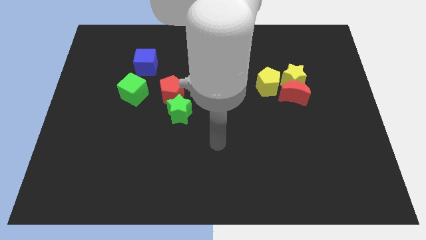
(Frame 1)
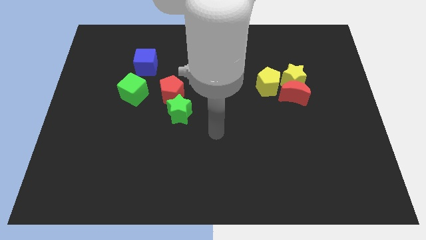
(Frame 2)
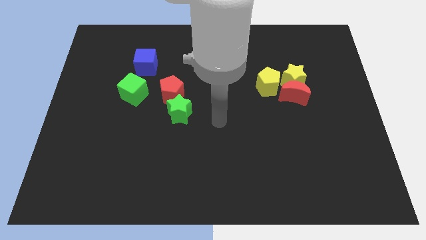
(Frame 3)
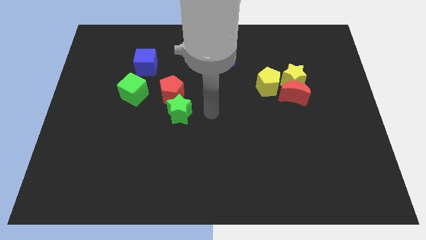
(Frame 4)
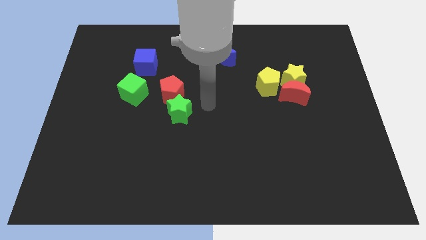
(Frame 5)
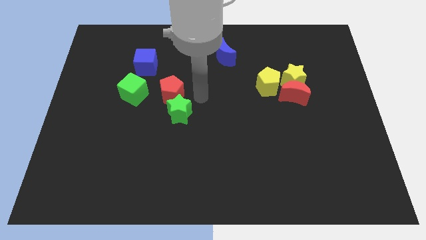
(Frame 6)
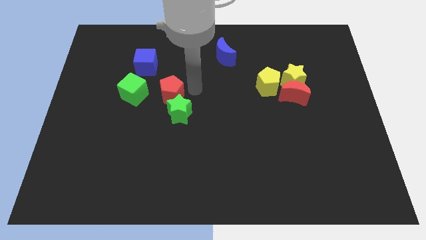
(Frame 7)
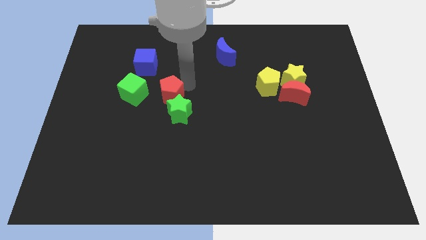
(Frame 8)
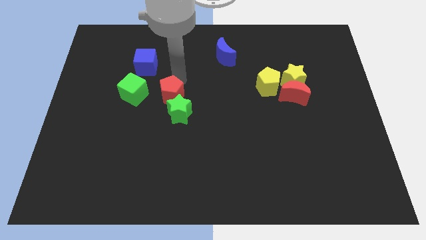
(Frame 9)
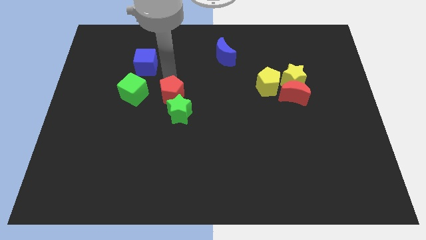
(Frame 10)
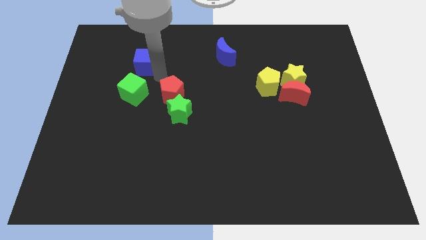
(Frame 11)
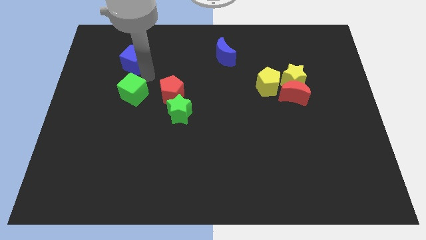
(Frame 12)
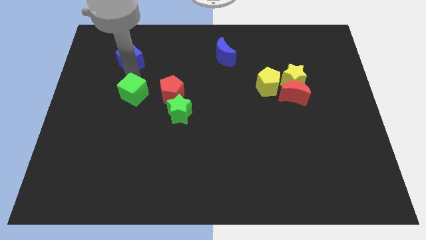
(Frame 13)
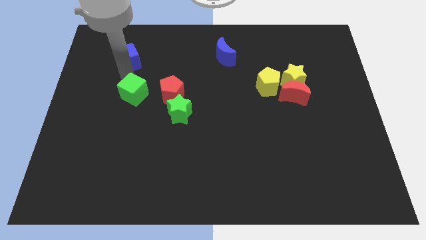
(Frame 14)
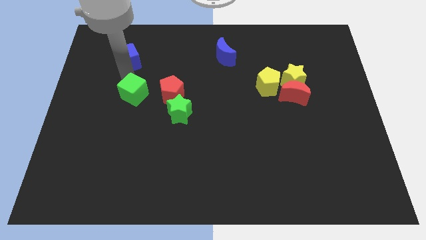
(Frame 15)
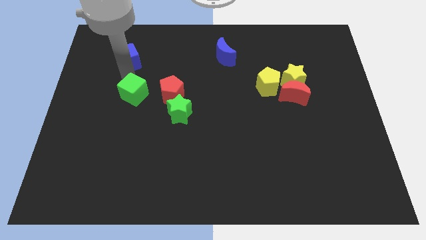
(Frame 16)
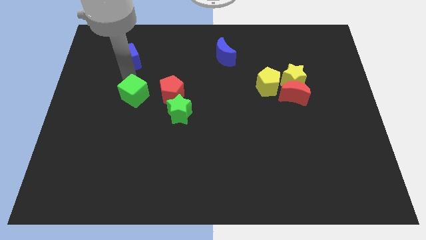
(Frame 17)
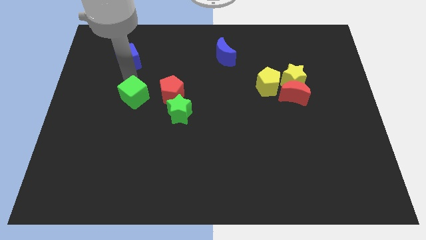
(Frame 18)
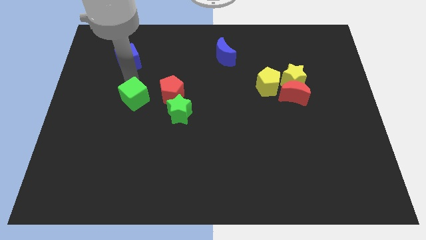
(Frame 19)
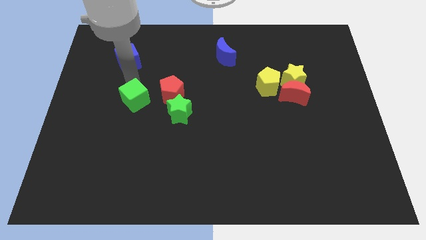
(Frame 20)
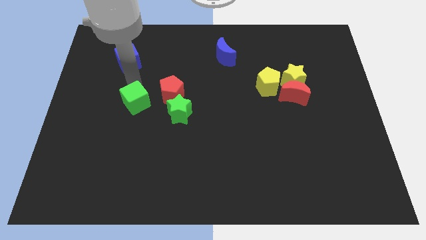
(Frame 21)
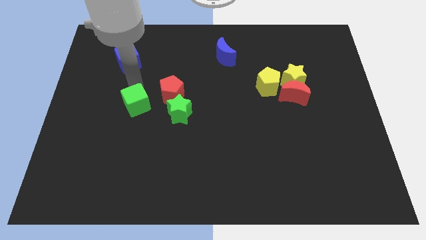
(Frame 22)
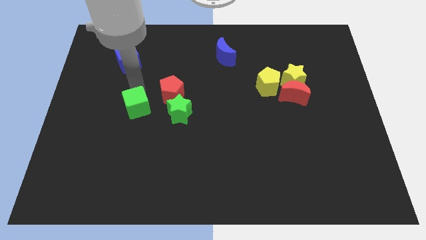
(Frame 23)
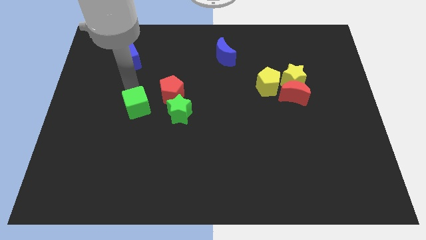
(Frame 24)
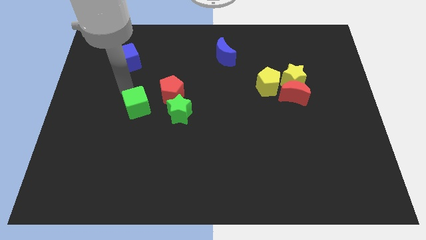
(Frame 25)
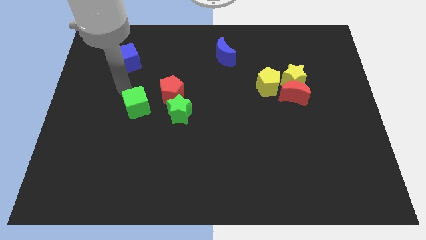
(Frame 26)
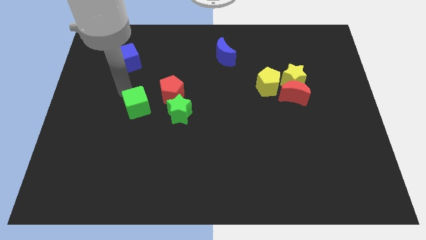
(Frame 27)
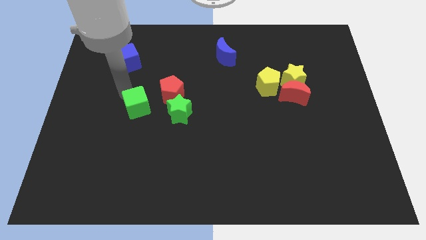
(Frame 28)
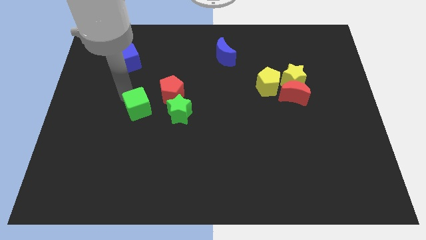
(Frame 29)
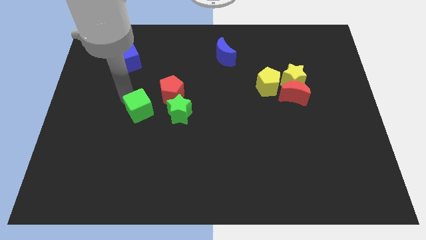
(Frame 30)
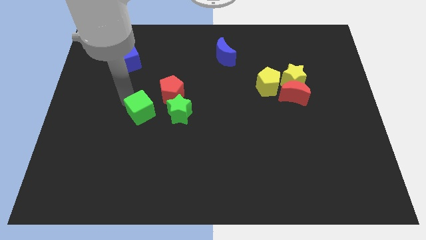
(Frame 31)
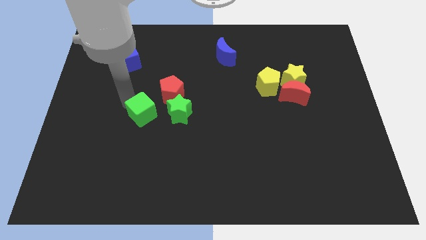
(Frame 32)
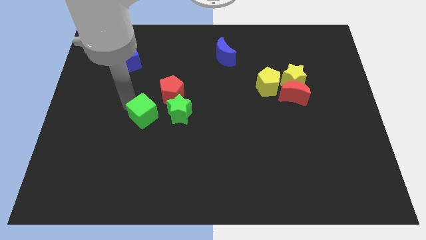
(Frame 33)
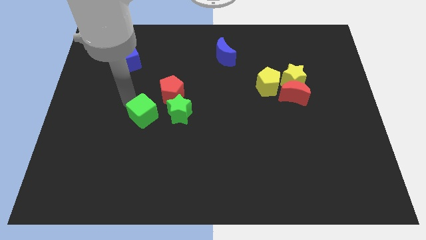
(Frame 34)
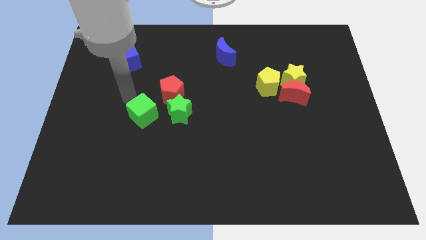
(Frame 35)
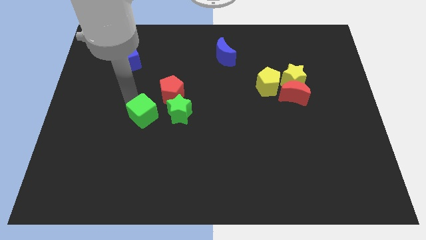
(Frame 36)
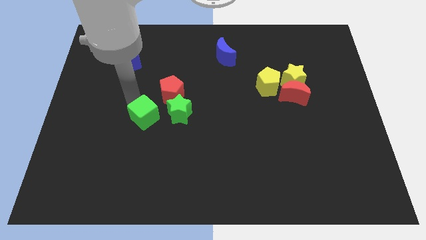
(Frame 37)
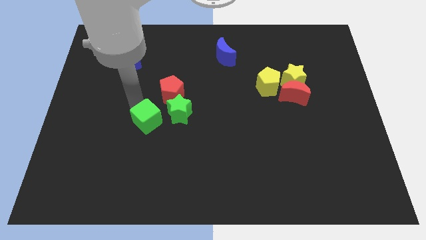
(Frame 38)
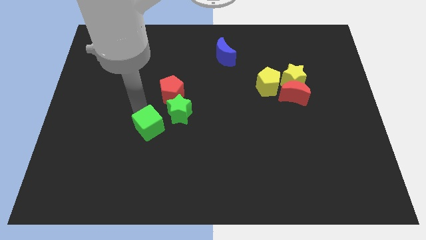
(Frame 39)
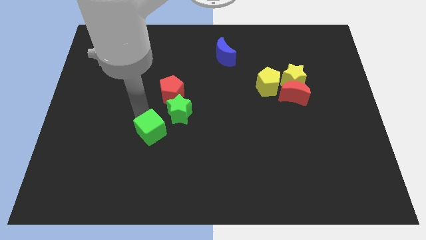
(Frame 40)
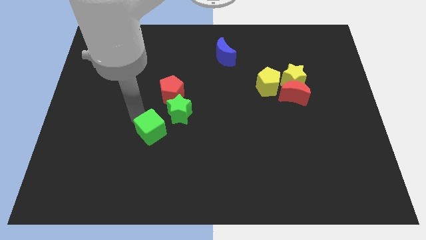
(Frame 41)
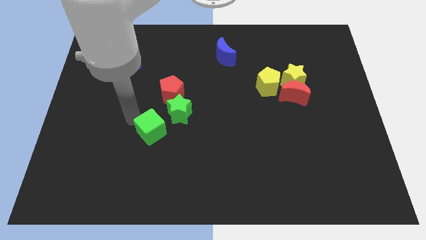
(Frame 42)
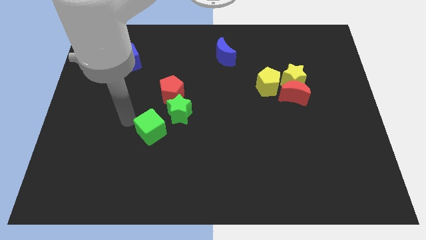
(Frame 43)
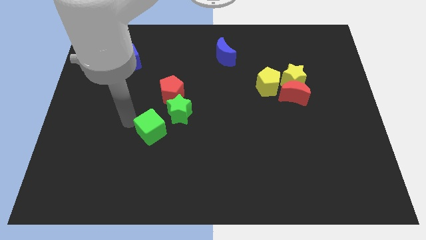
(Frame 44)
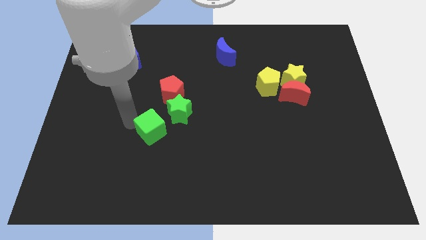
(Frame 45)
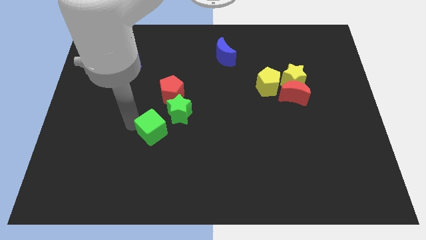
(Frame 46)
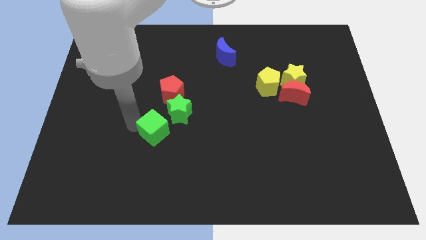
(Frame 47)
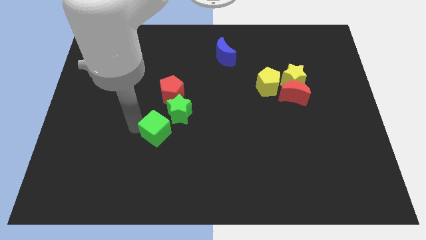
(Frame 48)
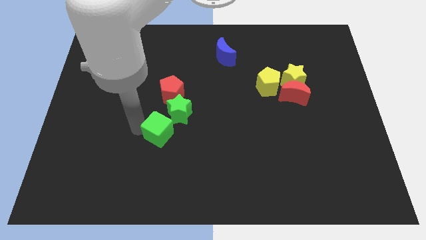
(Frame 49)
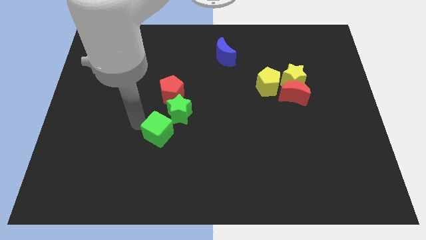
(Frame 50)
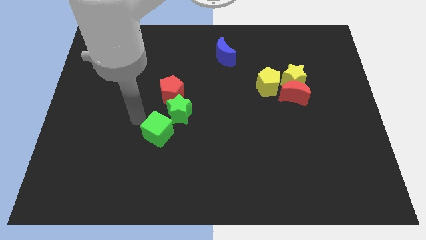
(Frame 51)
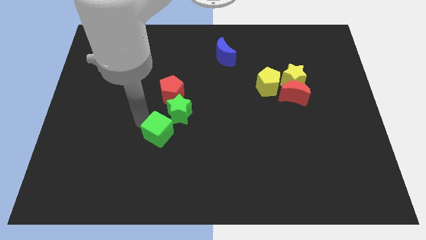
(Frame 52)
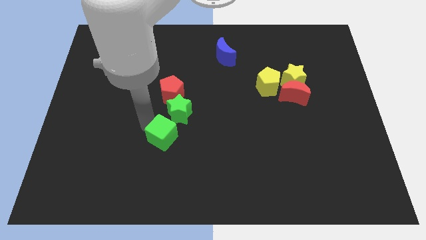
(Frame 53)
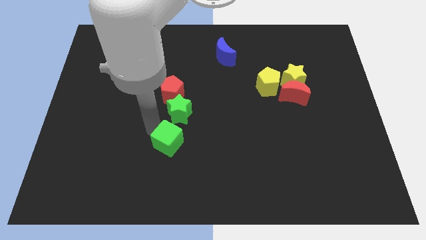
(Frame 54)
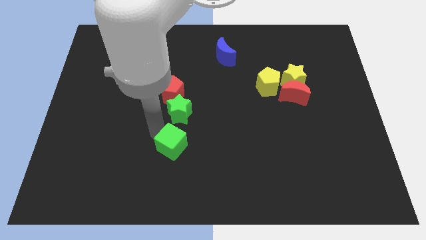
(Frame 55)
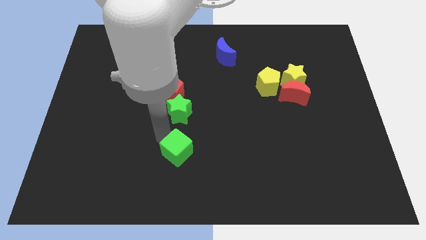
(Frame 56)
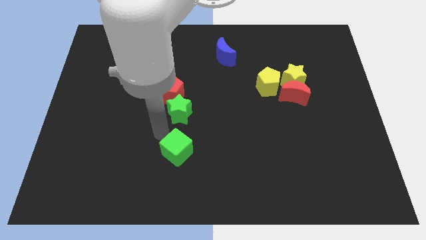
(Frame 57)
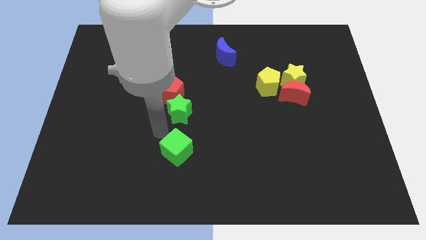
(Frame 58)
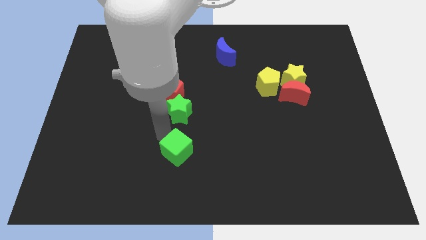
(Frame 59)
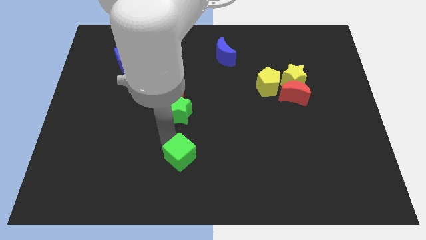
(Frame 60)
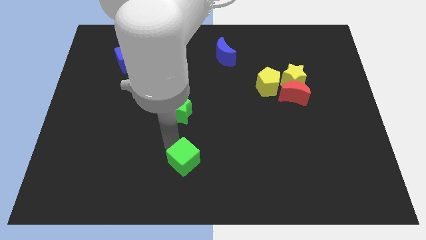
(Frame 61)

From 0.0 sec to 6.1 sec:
slide the green cube to the bottom side
